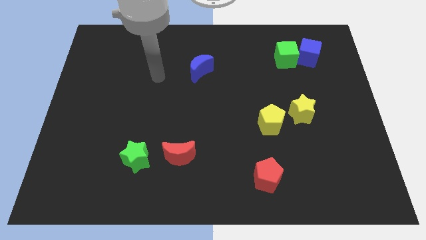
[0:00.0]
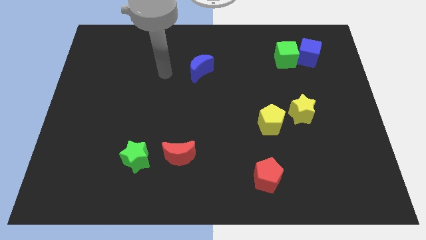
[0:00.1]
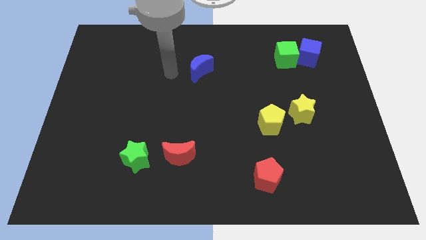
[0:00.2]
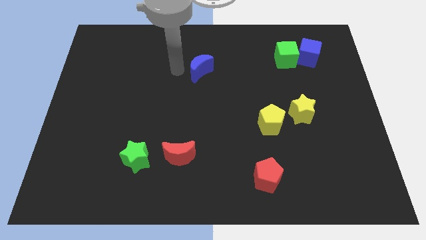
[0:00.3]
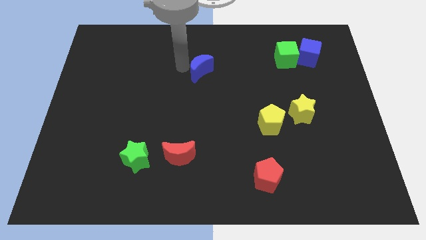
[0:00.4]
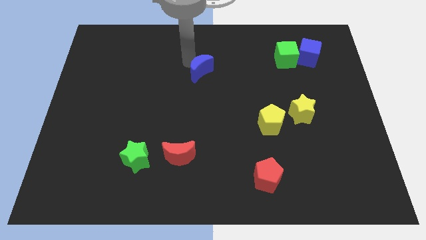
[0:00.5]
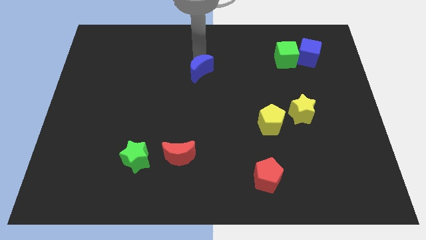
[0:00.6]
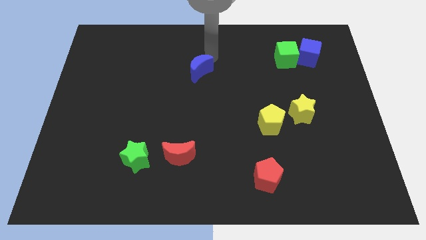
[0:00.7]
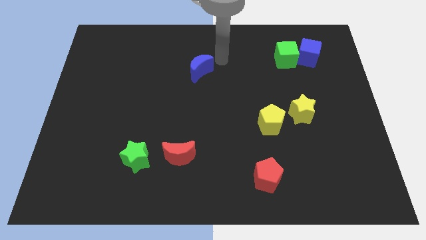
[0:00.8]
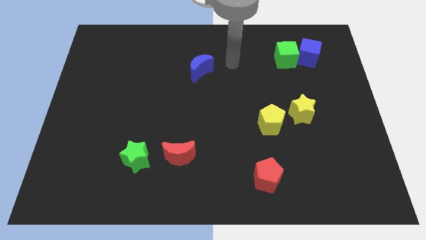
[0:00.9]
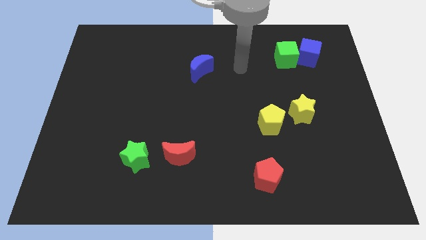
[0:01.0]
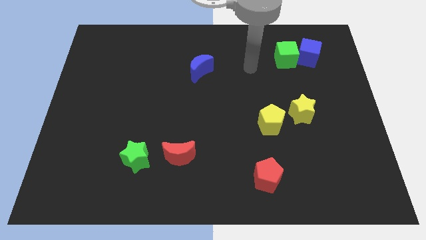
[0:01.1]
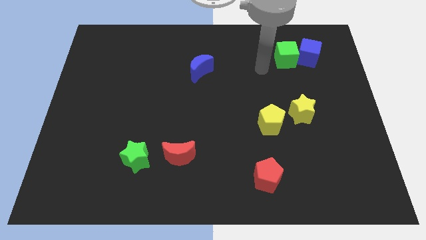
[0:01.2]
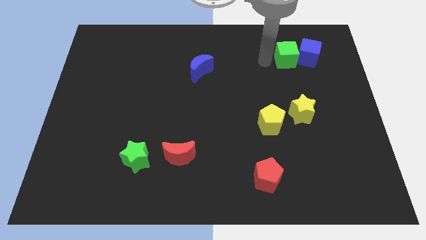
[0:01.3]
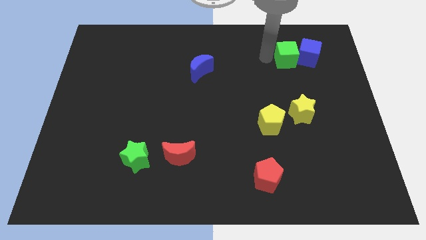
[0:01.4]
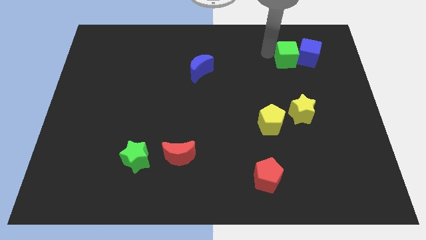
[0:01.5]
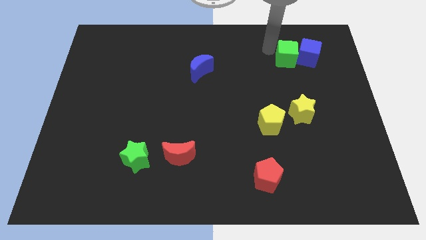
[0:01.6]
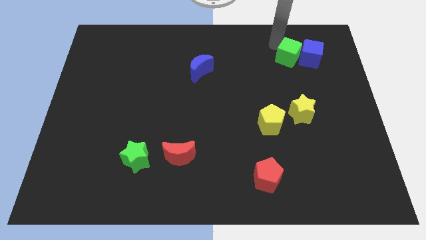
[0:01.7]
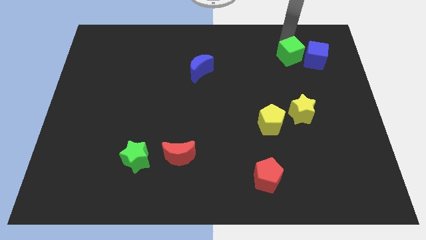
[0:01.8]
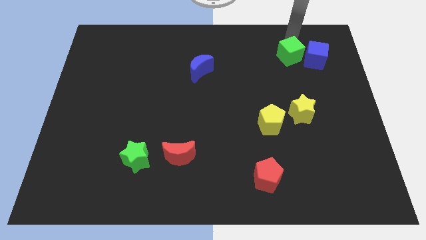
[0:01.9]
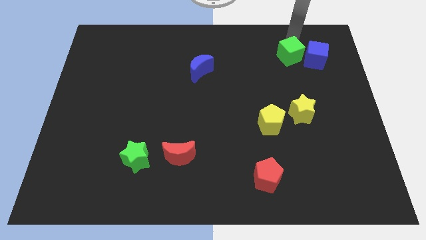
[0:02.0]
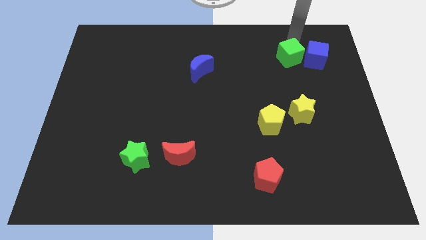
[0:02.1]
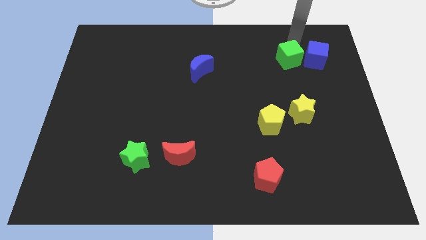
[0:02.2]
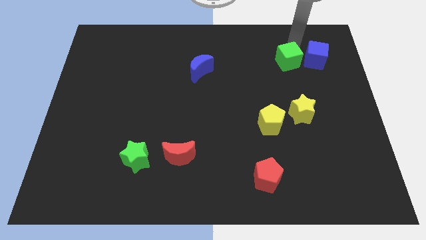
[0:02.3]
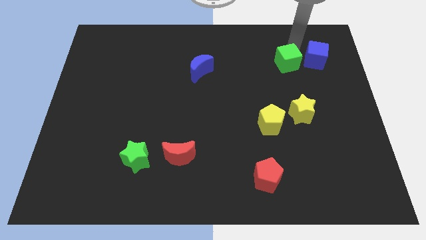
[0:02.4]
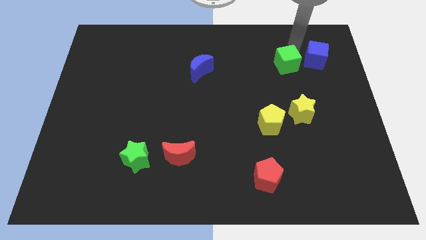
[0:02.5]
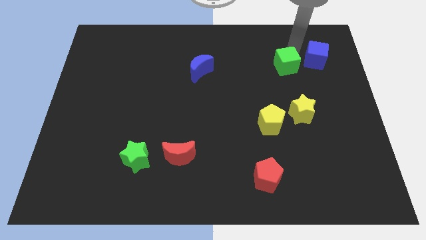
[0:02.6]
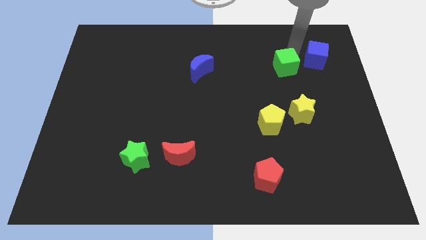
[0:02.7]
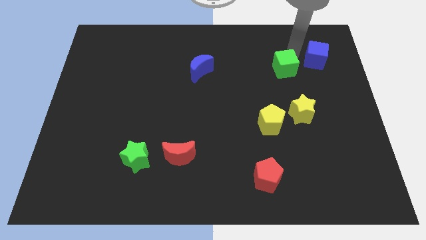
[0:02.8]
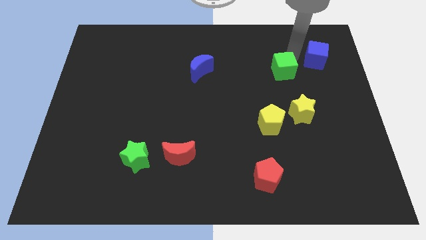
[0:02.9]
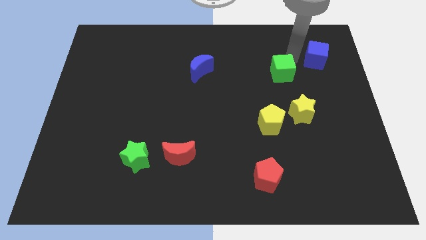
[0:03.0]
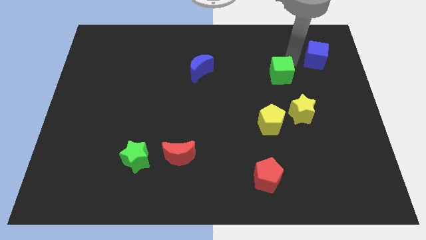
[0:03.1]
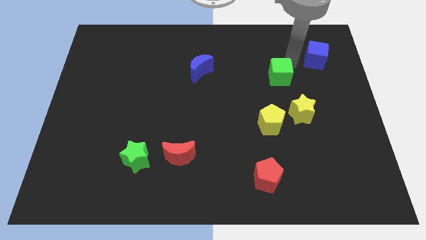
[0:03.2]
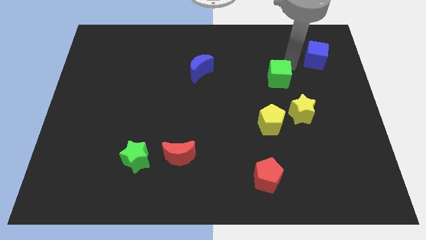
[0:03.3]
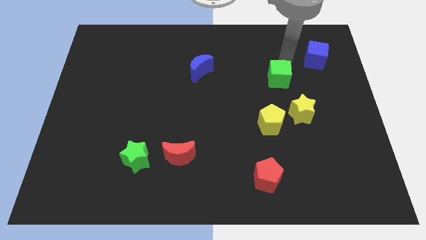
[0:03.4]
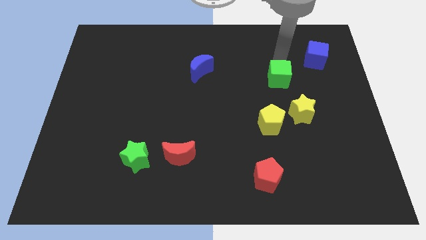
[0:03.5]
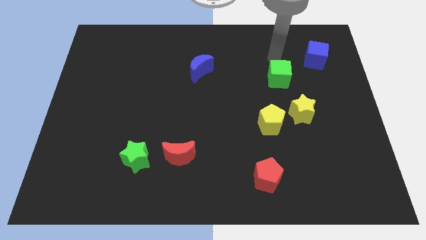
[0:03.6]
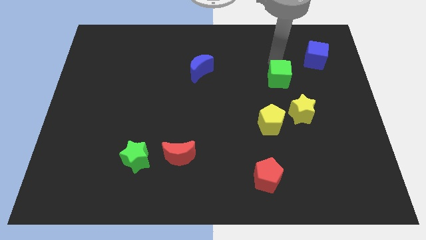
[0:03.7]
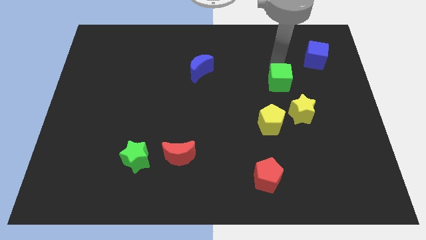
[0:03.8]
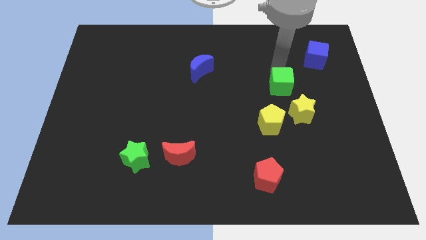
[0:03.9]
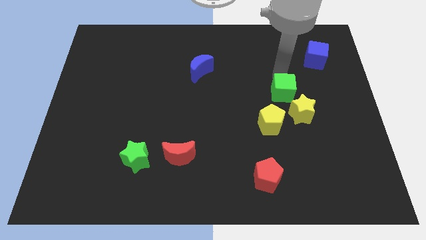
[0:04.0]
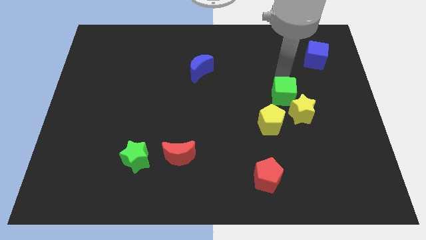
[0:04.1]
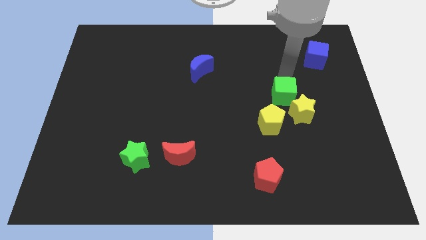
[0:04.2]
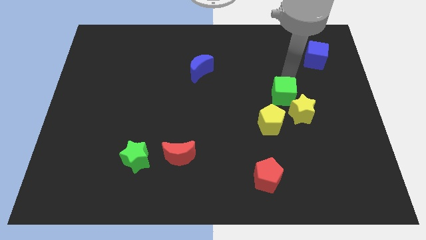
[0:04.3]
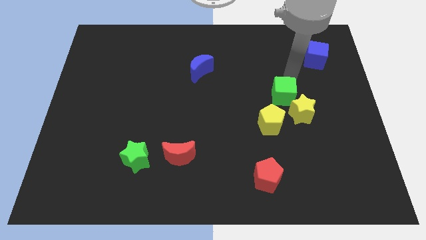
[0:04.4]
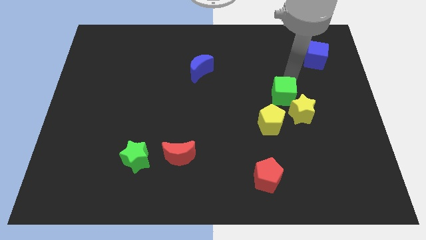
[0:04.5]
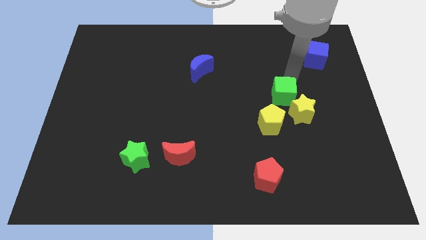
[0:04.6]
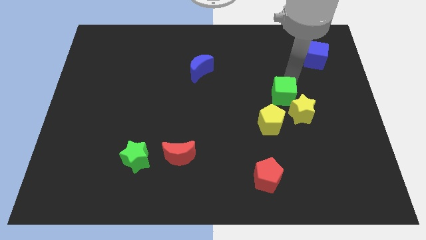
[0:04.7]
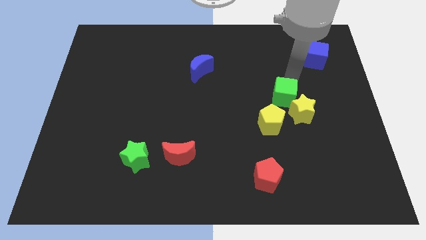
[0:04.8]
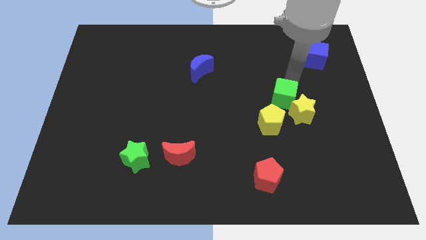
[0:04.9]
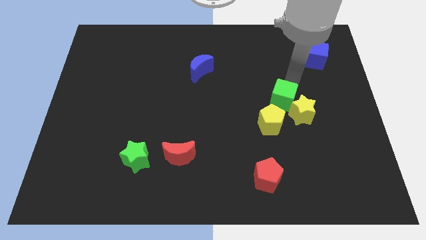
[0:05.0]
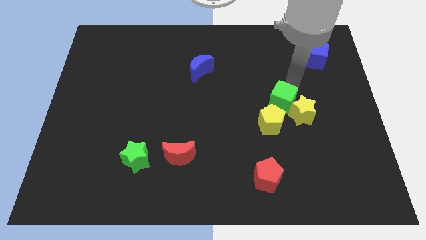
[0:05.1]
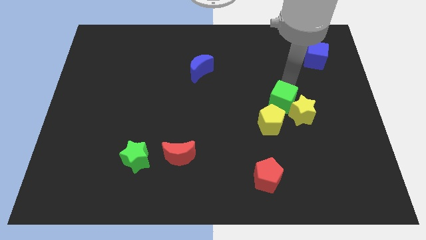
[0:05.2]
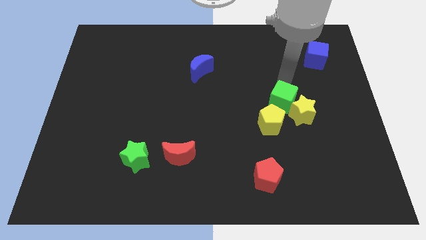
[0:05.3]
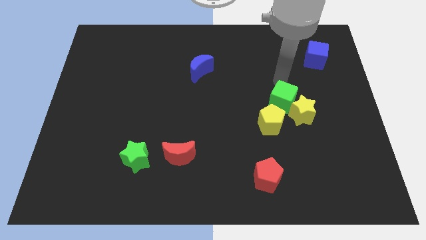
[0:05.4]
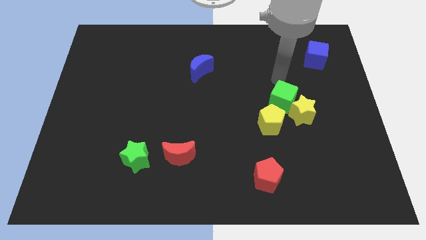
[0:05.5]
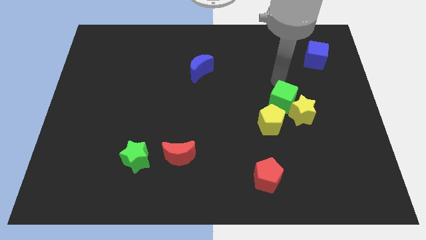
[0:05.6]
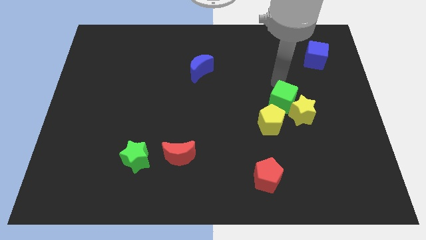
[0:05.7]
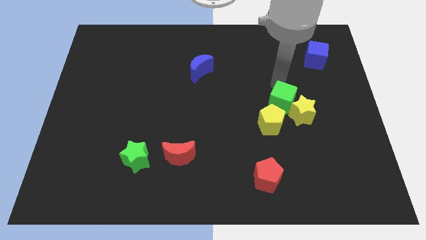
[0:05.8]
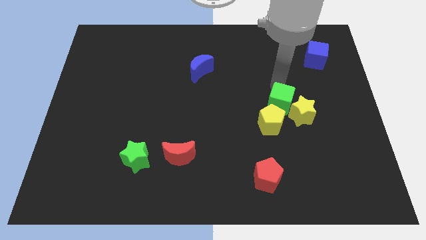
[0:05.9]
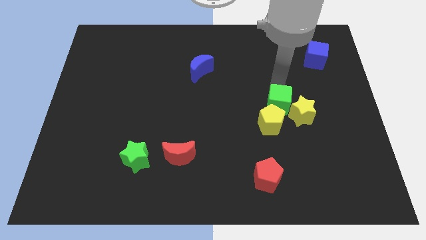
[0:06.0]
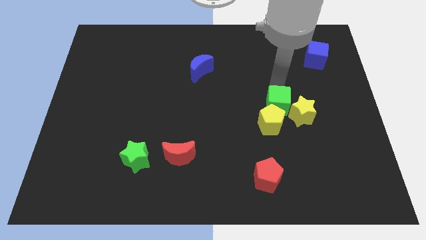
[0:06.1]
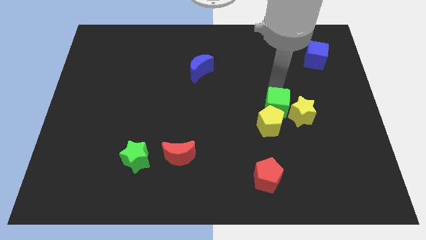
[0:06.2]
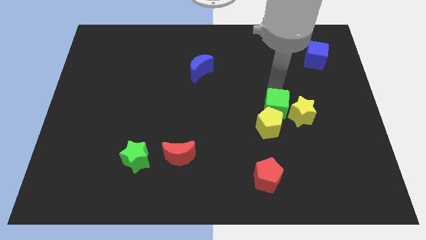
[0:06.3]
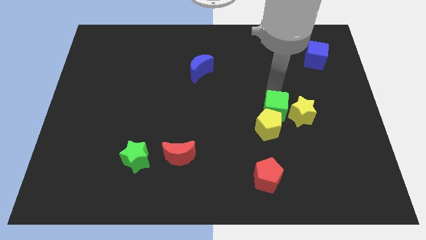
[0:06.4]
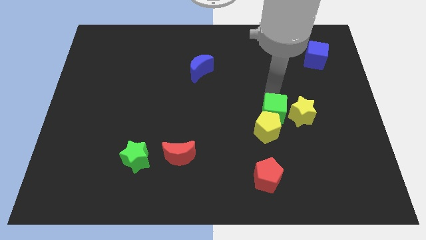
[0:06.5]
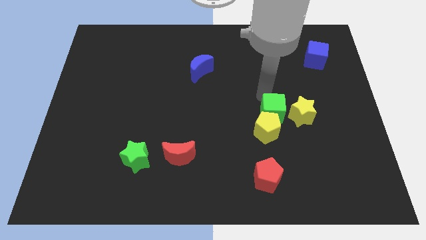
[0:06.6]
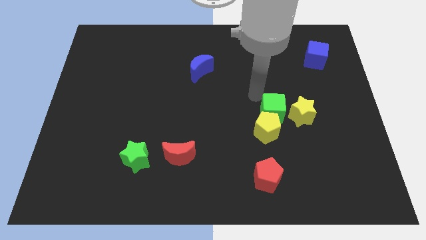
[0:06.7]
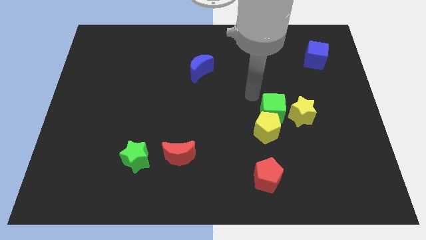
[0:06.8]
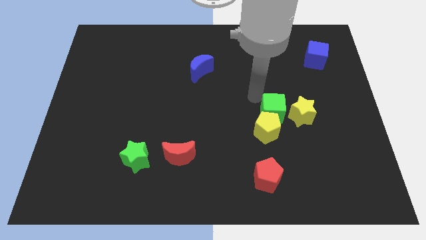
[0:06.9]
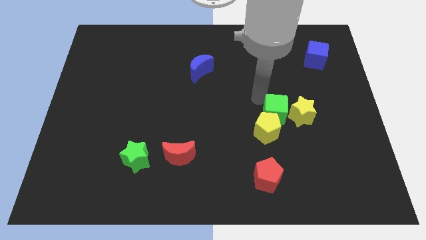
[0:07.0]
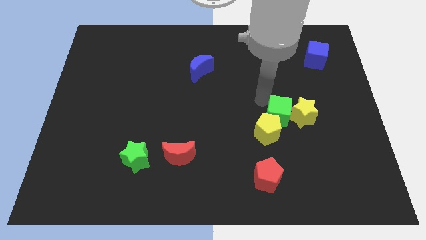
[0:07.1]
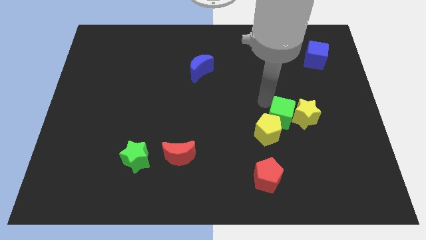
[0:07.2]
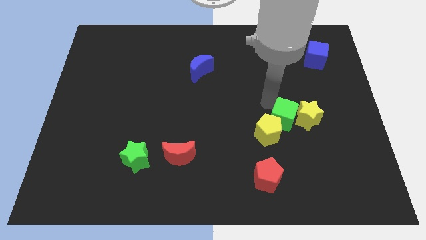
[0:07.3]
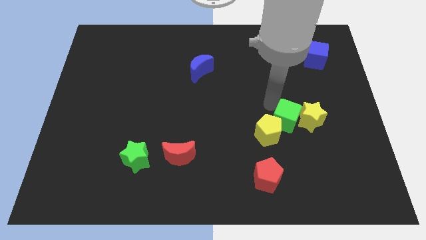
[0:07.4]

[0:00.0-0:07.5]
move the green cube down

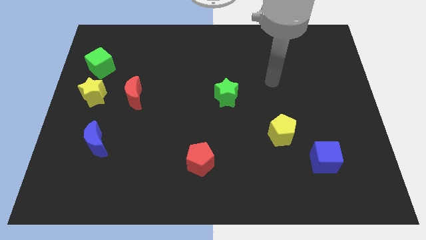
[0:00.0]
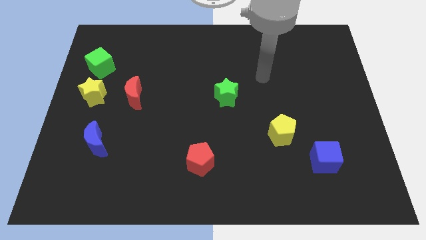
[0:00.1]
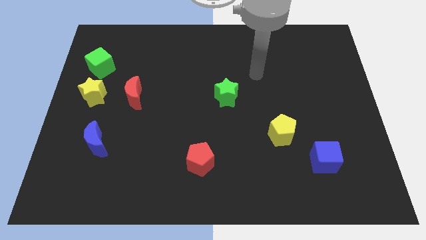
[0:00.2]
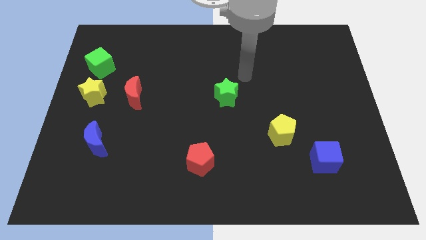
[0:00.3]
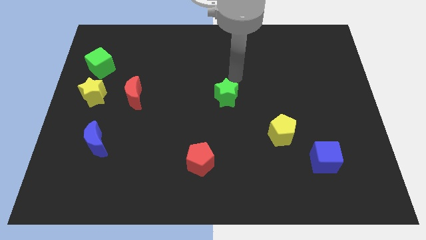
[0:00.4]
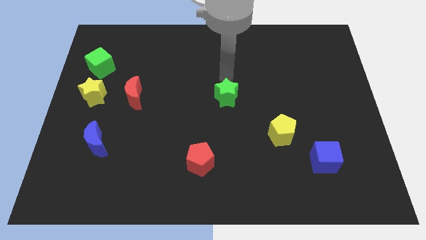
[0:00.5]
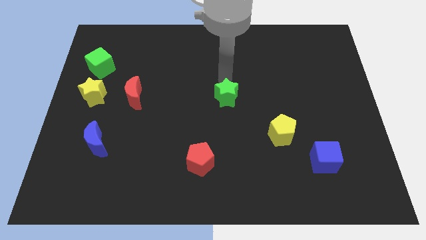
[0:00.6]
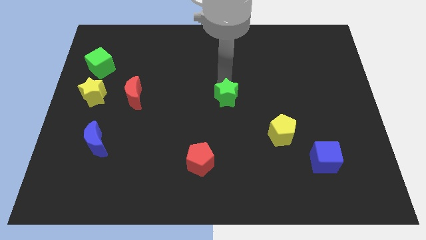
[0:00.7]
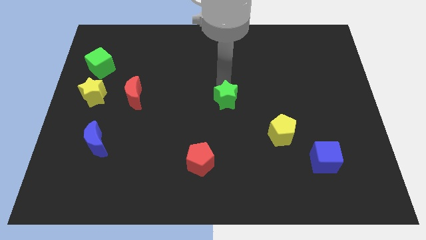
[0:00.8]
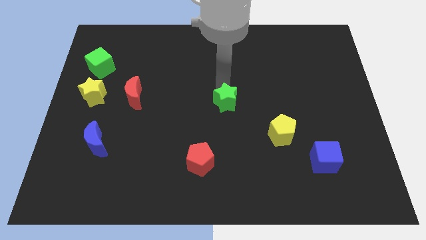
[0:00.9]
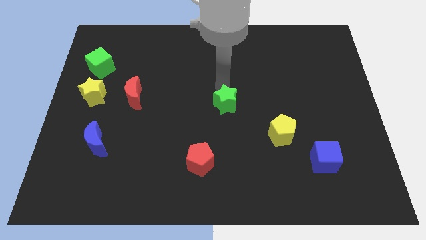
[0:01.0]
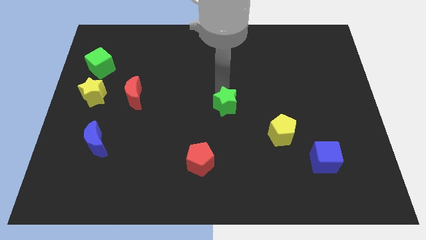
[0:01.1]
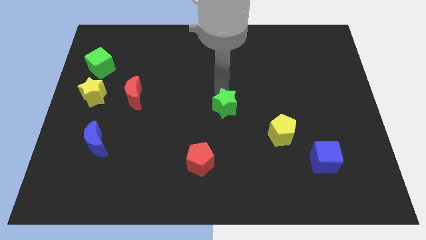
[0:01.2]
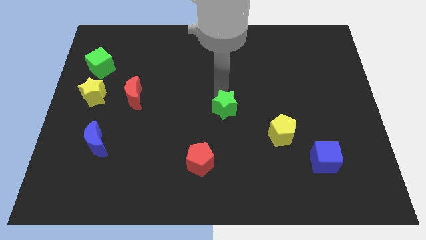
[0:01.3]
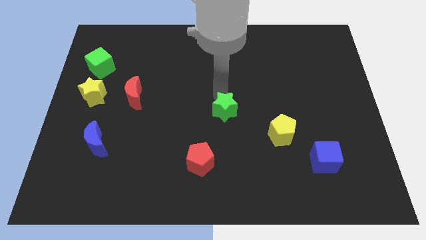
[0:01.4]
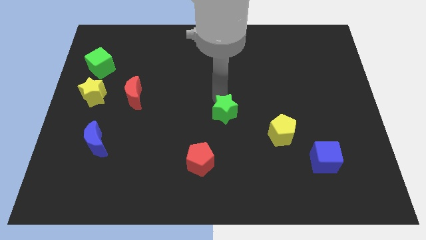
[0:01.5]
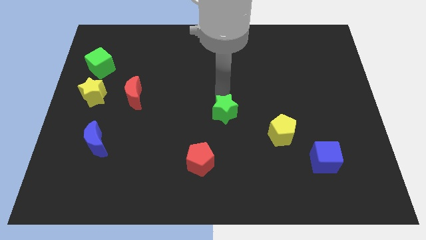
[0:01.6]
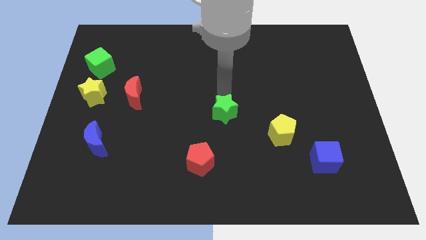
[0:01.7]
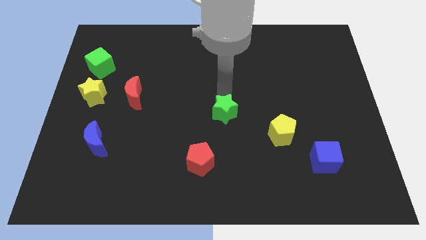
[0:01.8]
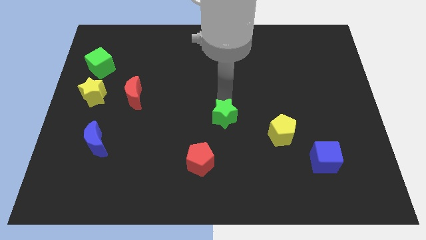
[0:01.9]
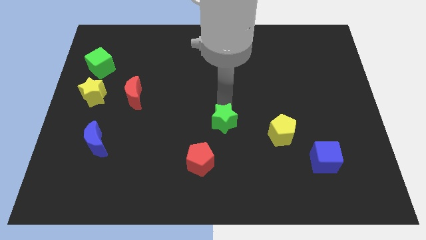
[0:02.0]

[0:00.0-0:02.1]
push the green star downwards a little
